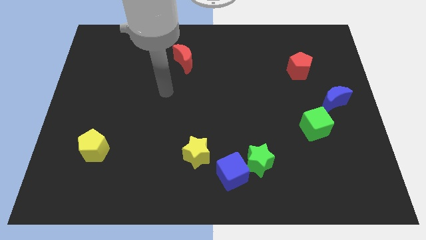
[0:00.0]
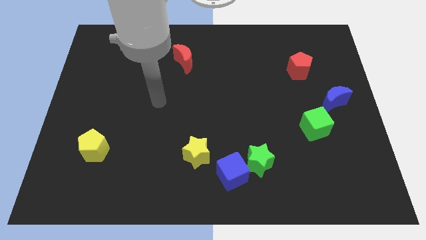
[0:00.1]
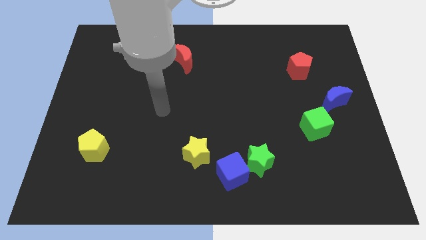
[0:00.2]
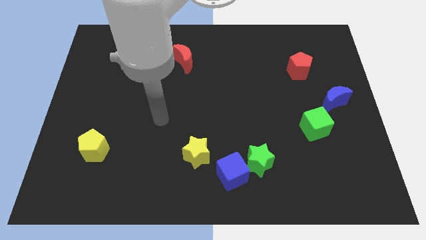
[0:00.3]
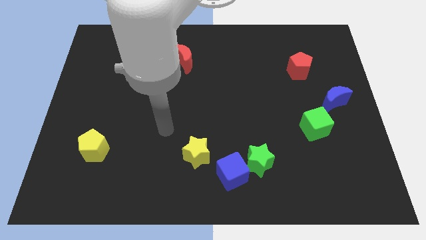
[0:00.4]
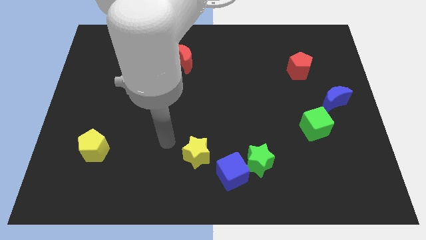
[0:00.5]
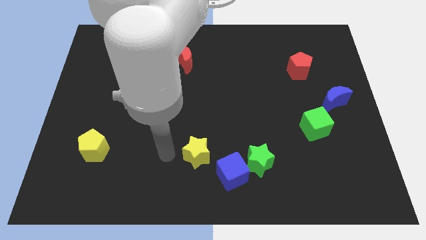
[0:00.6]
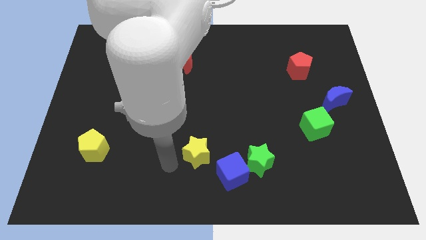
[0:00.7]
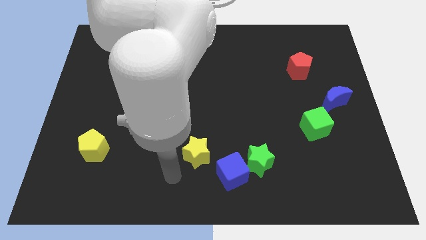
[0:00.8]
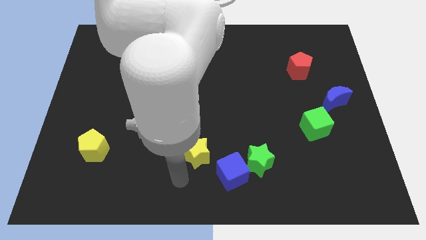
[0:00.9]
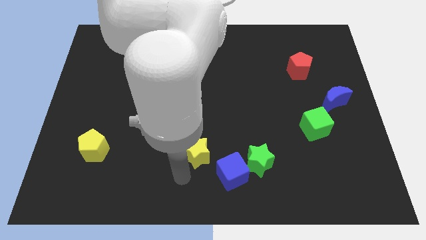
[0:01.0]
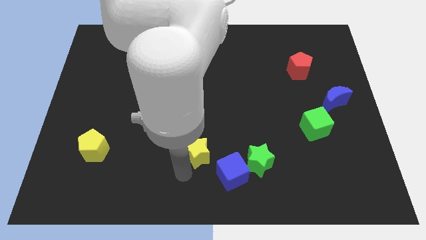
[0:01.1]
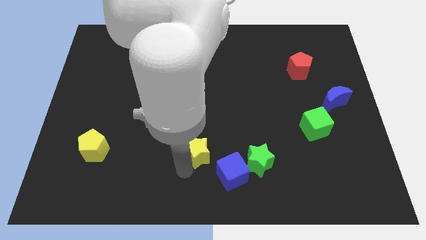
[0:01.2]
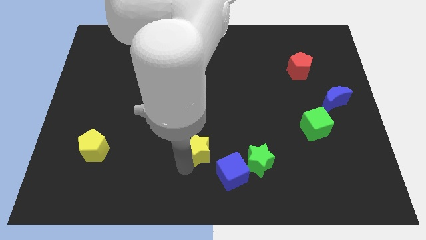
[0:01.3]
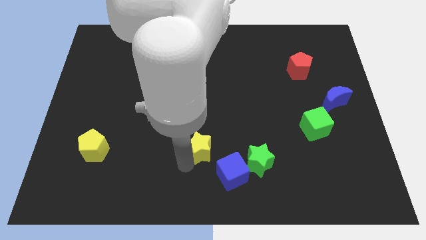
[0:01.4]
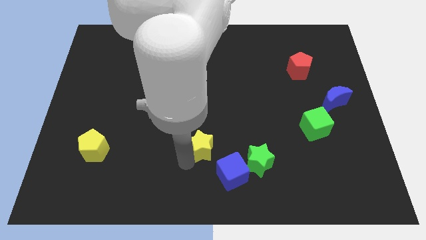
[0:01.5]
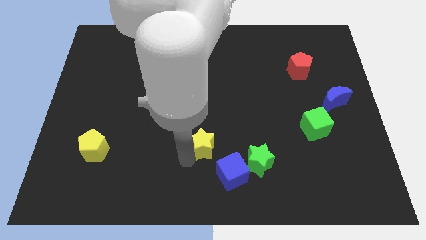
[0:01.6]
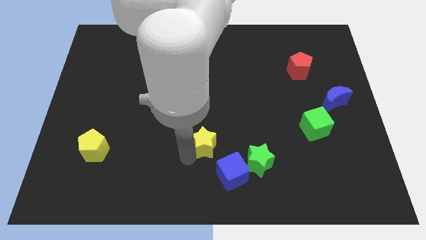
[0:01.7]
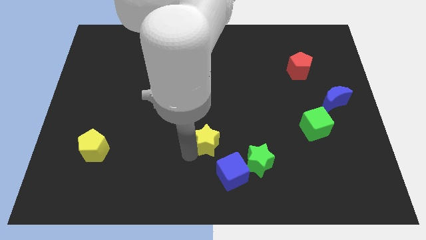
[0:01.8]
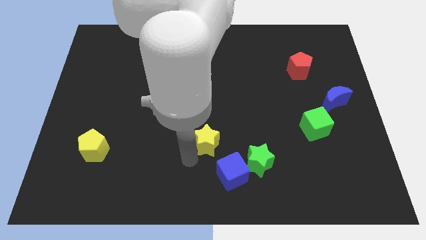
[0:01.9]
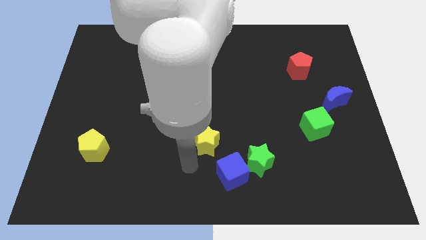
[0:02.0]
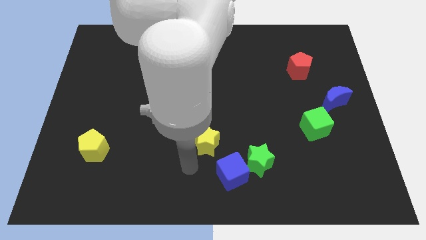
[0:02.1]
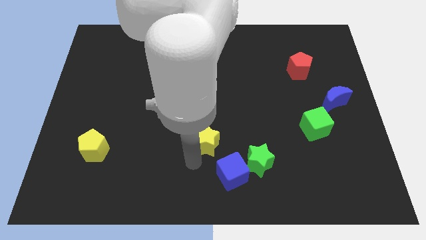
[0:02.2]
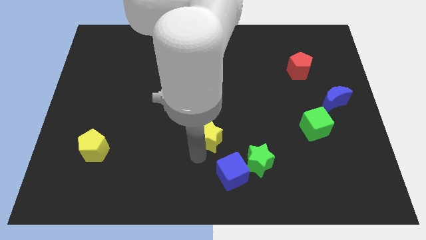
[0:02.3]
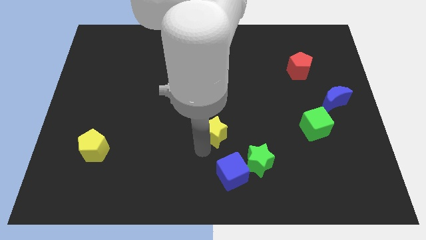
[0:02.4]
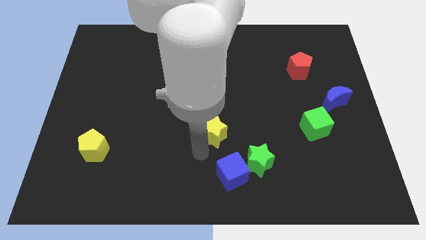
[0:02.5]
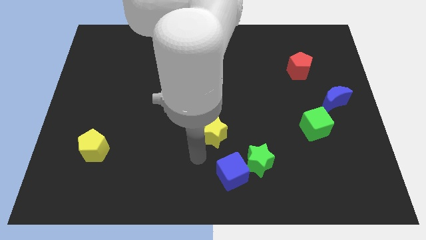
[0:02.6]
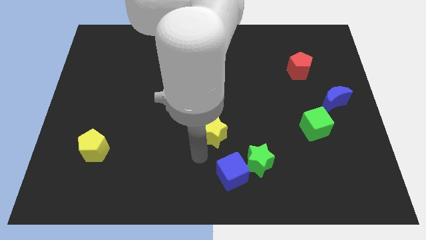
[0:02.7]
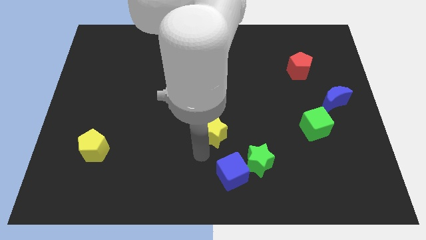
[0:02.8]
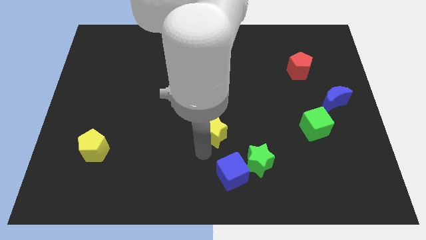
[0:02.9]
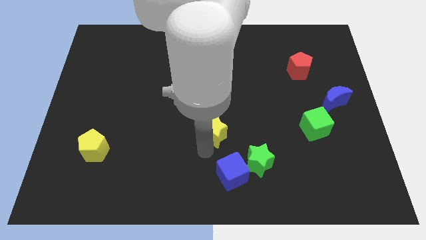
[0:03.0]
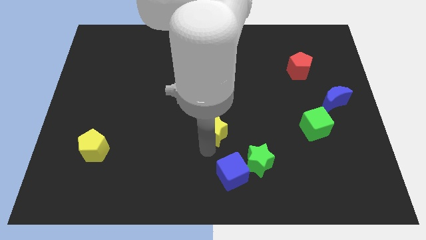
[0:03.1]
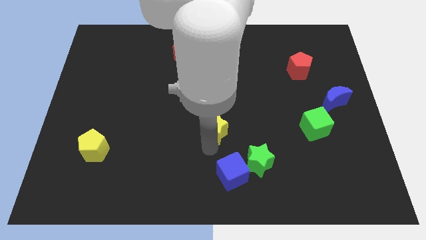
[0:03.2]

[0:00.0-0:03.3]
push the yellow star a bit up and right diagonally

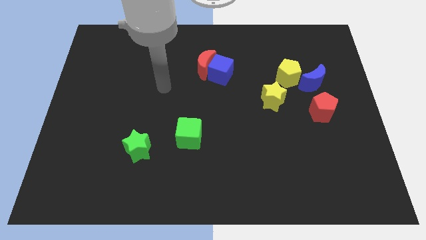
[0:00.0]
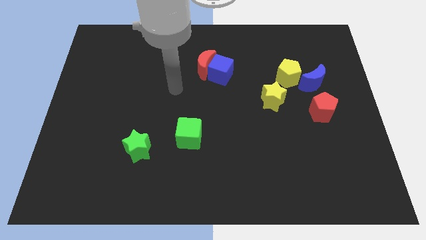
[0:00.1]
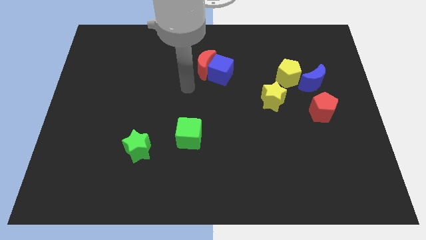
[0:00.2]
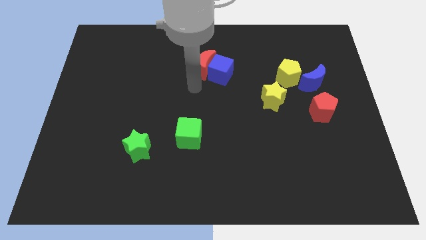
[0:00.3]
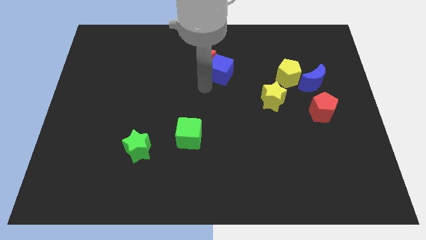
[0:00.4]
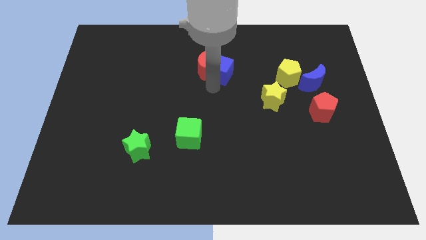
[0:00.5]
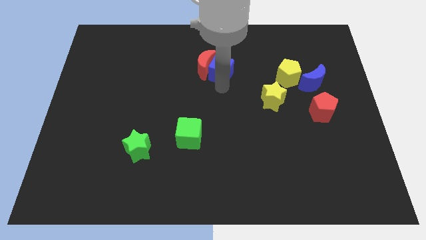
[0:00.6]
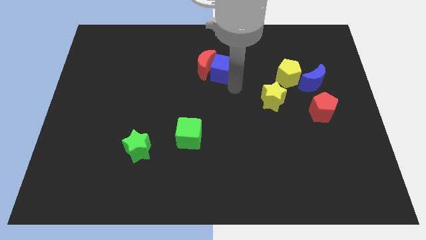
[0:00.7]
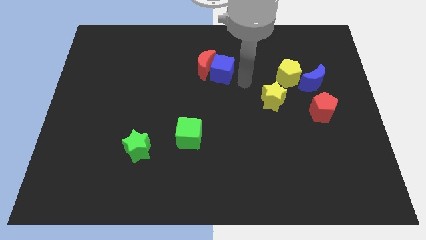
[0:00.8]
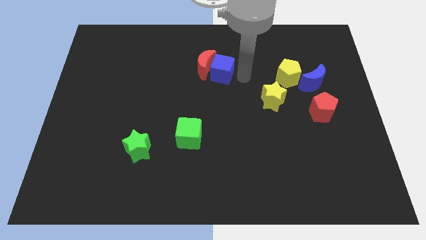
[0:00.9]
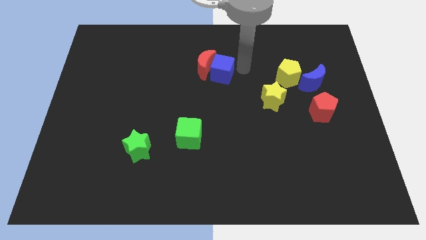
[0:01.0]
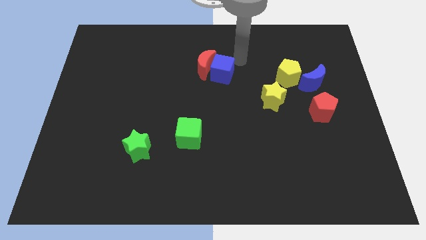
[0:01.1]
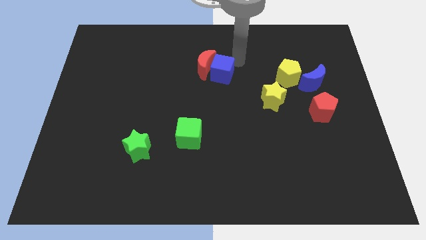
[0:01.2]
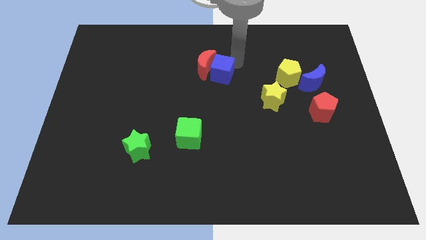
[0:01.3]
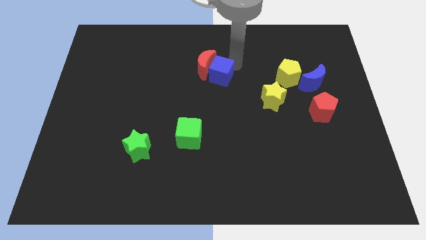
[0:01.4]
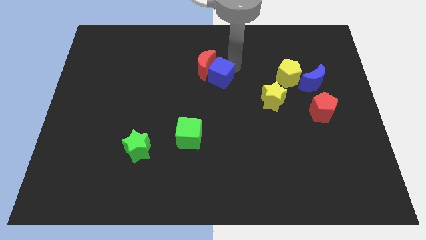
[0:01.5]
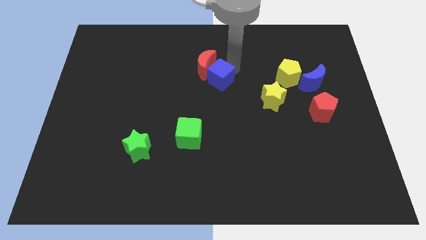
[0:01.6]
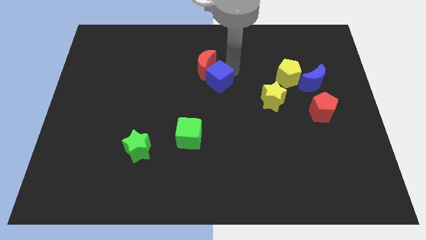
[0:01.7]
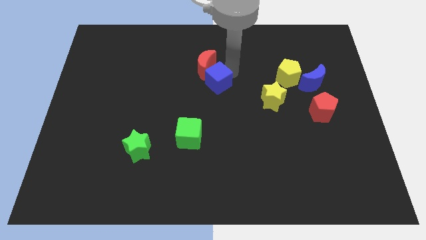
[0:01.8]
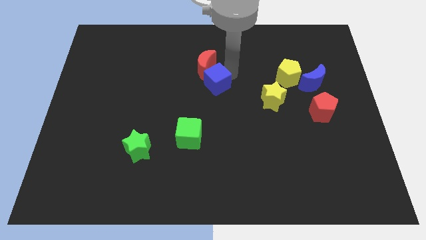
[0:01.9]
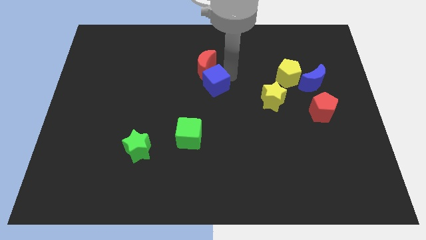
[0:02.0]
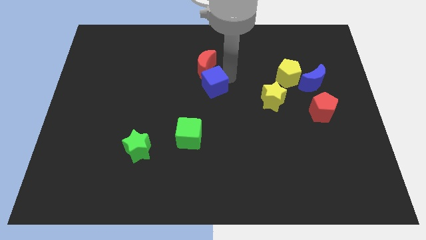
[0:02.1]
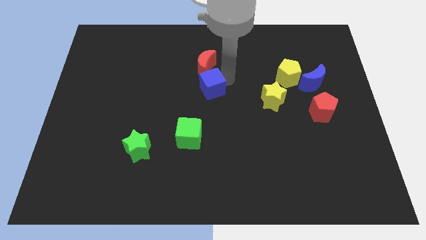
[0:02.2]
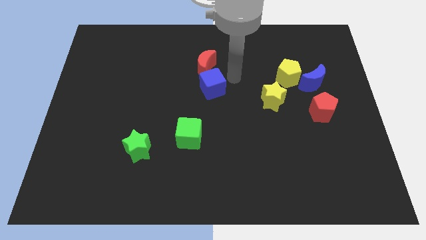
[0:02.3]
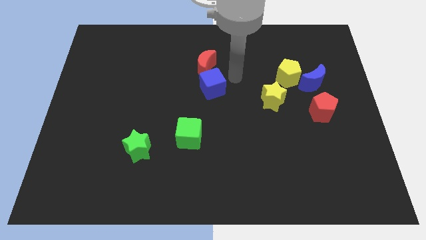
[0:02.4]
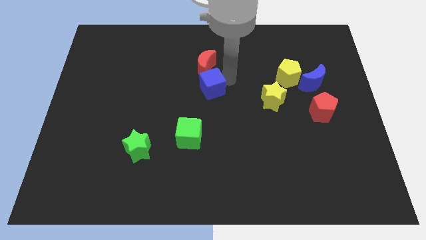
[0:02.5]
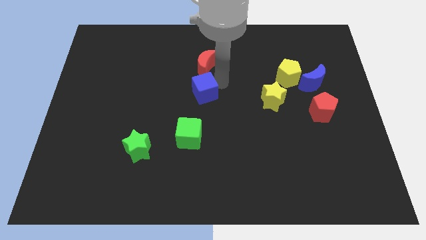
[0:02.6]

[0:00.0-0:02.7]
slightly move the blue cube down and to the left diagonally

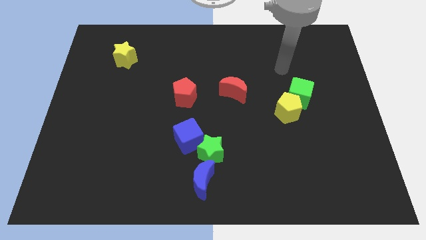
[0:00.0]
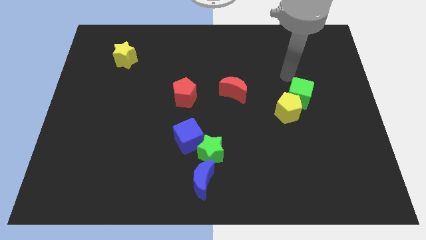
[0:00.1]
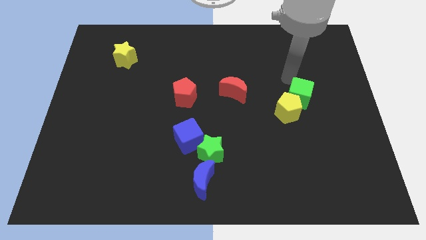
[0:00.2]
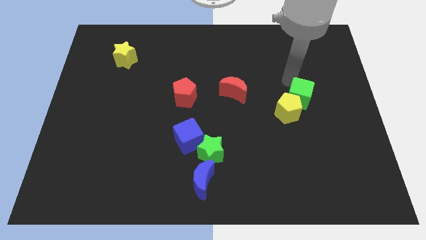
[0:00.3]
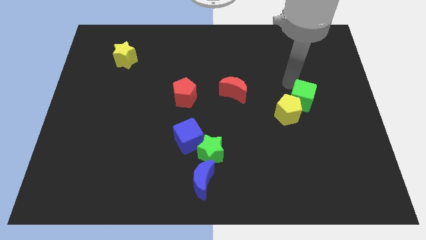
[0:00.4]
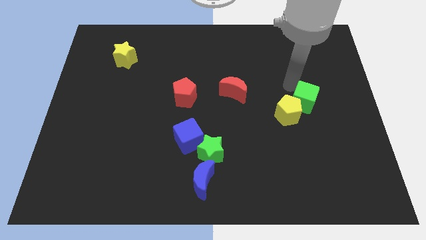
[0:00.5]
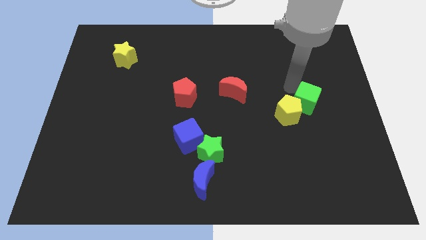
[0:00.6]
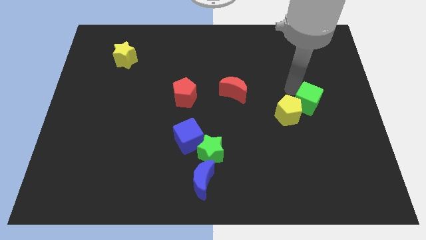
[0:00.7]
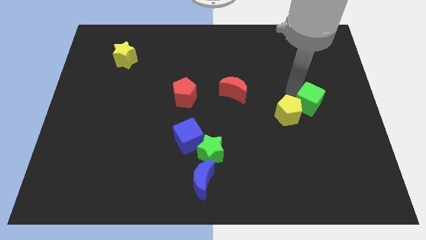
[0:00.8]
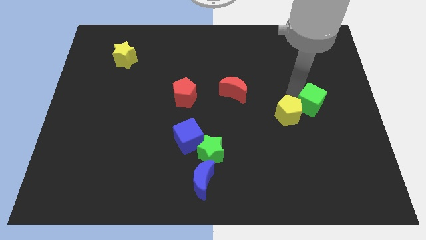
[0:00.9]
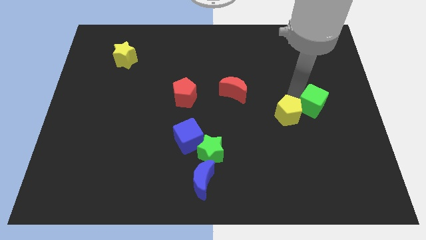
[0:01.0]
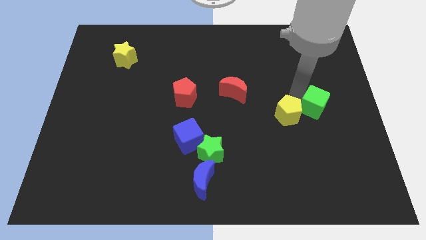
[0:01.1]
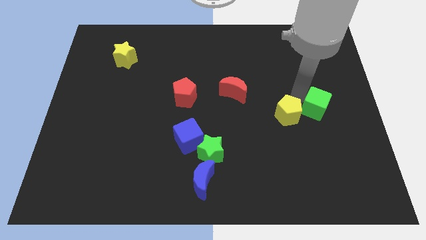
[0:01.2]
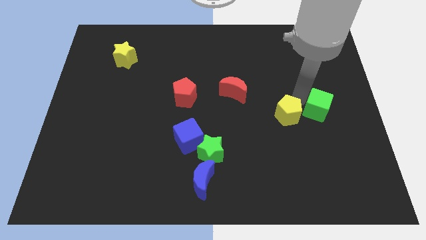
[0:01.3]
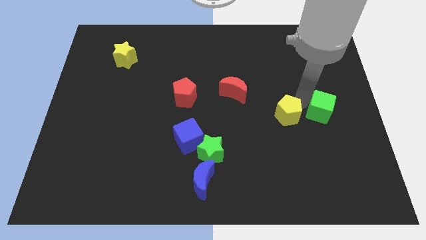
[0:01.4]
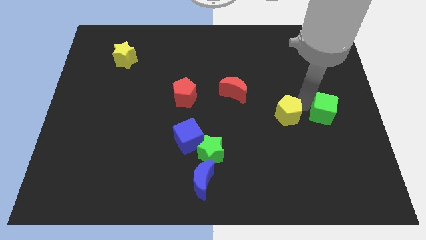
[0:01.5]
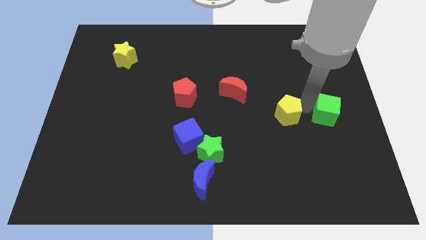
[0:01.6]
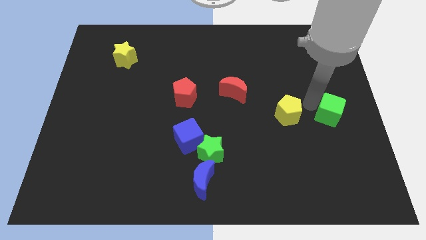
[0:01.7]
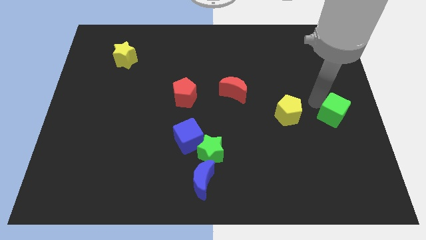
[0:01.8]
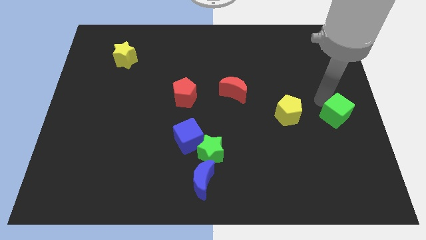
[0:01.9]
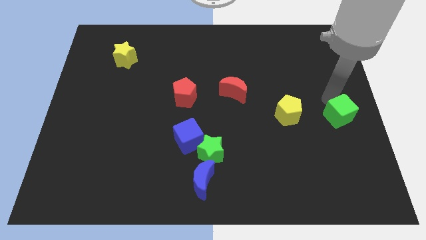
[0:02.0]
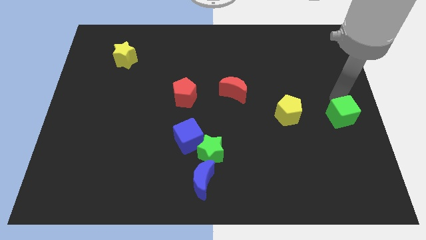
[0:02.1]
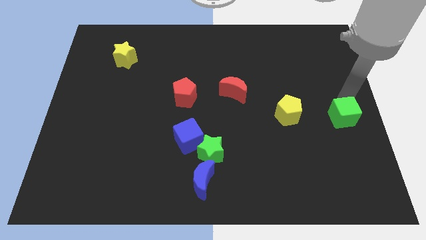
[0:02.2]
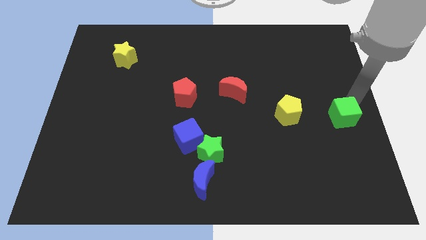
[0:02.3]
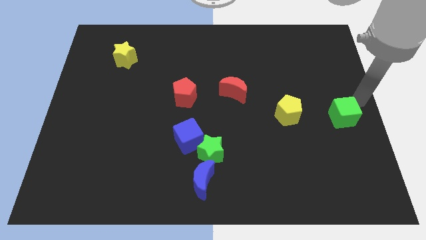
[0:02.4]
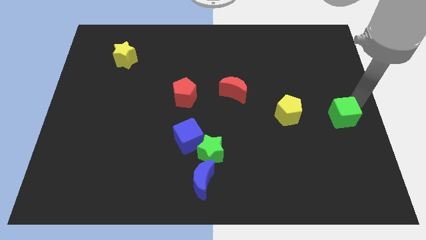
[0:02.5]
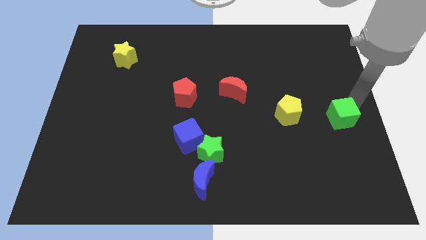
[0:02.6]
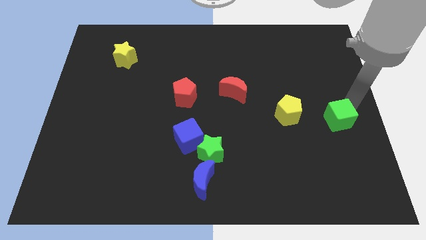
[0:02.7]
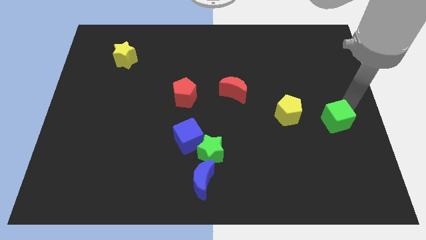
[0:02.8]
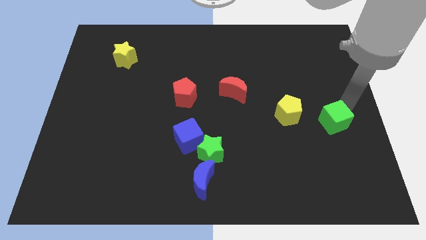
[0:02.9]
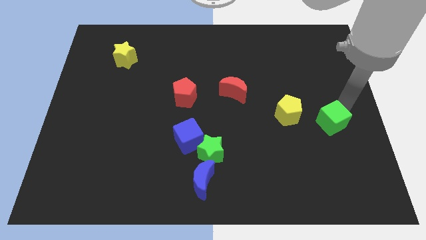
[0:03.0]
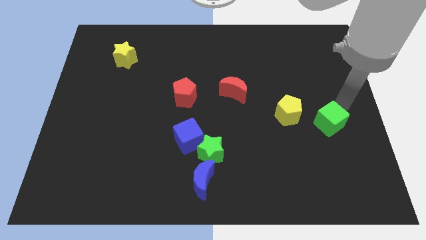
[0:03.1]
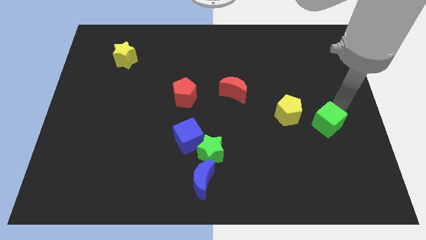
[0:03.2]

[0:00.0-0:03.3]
slightly move the green cube down
